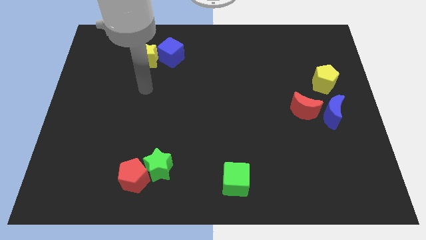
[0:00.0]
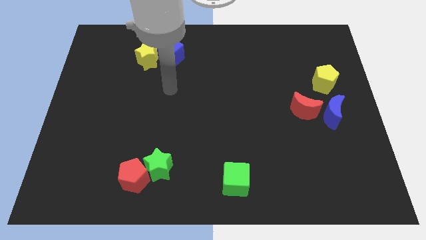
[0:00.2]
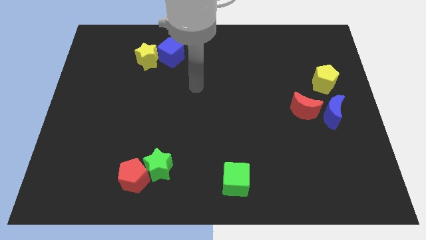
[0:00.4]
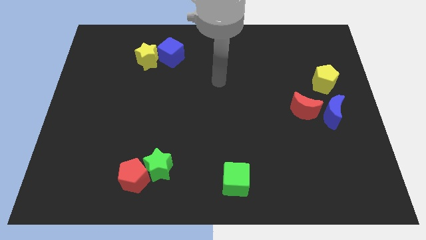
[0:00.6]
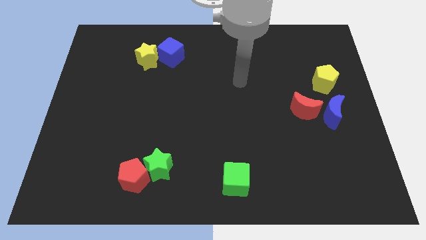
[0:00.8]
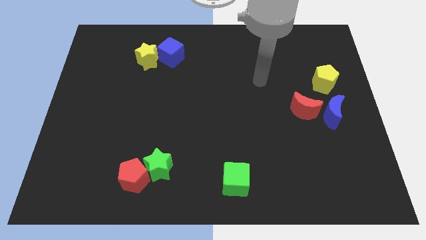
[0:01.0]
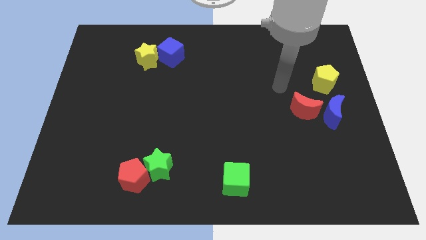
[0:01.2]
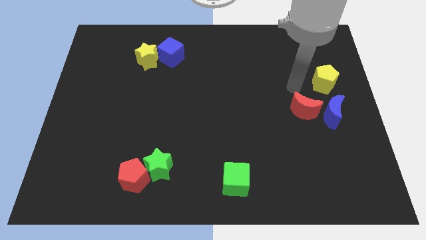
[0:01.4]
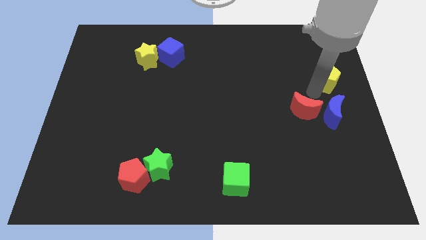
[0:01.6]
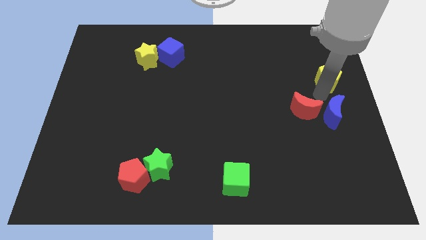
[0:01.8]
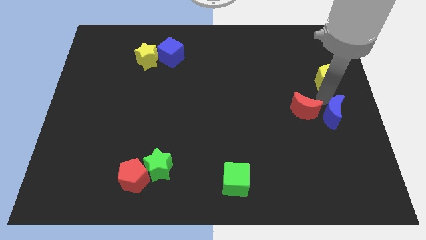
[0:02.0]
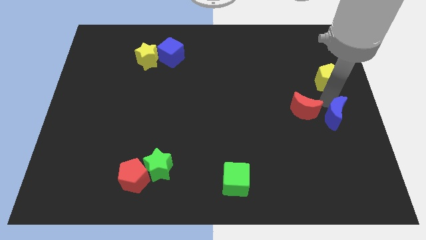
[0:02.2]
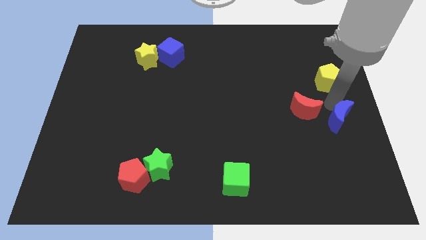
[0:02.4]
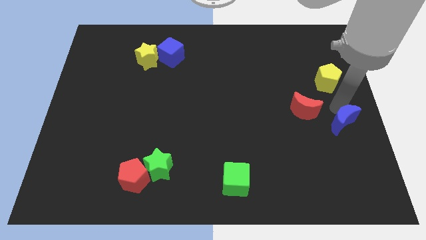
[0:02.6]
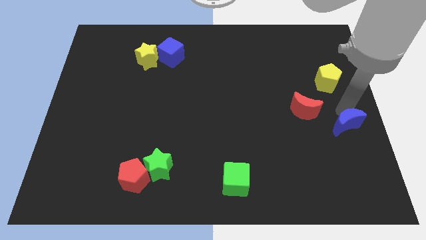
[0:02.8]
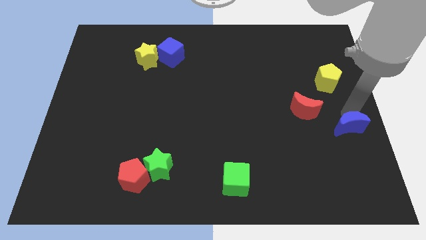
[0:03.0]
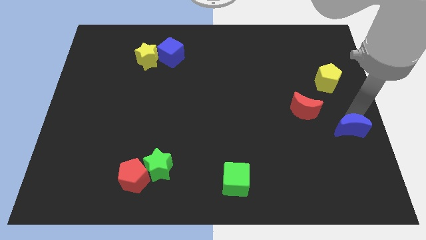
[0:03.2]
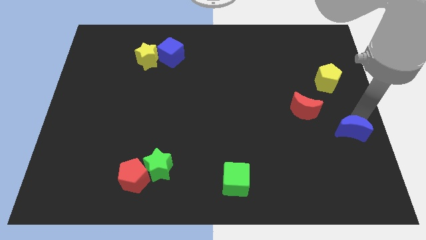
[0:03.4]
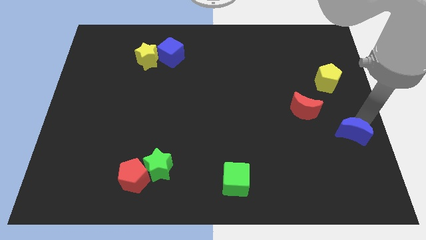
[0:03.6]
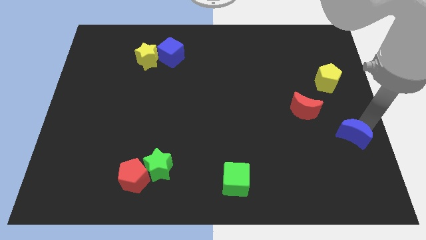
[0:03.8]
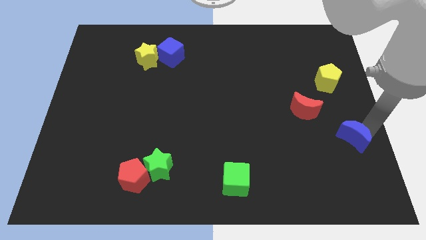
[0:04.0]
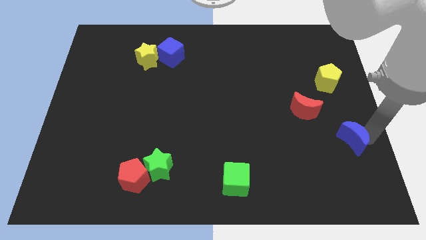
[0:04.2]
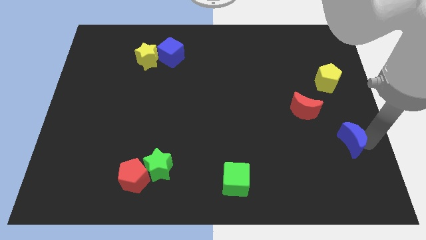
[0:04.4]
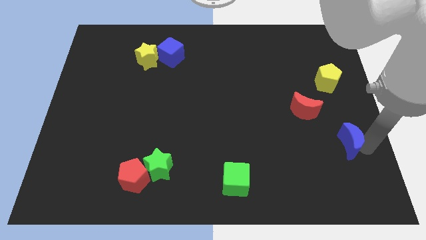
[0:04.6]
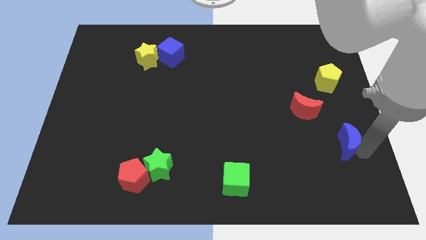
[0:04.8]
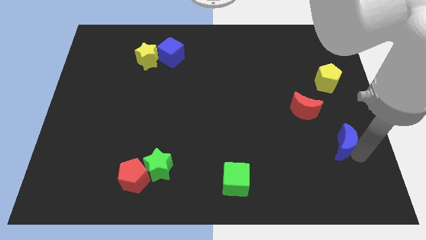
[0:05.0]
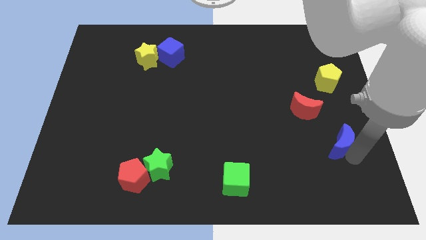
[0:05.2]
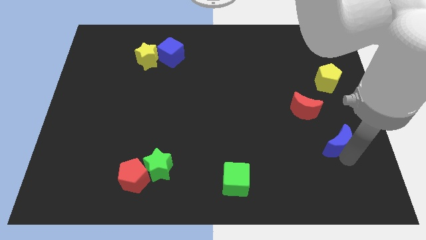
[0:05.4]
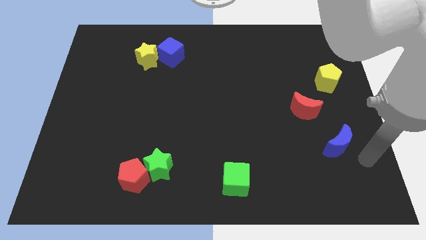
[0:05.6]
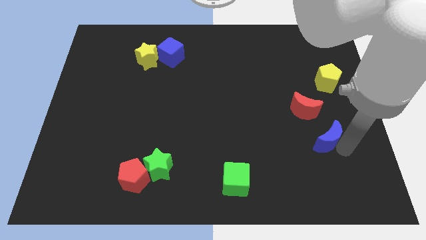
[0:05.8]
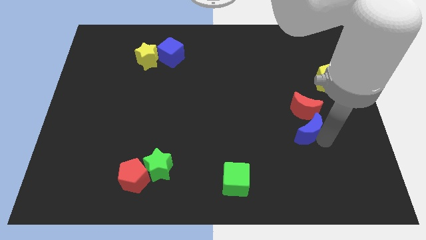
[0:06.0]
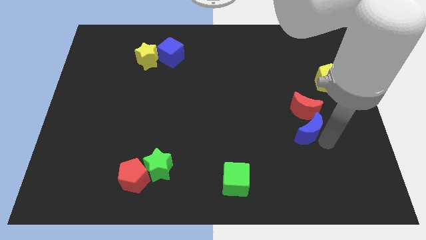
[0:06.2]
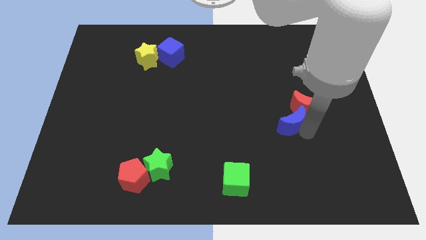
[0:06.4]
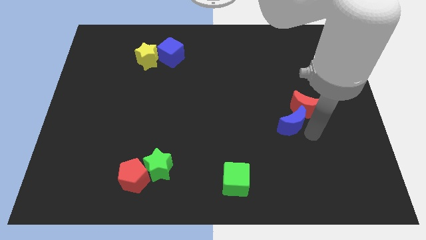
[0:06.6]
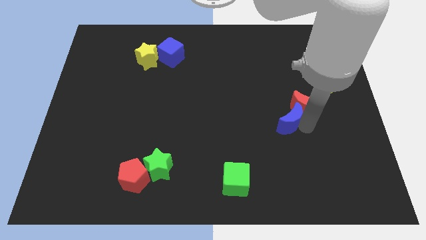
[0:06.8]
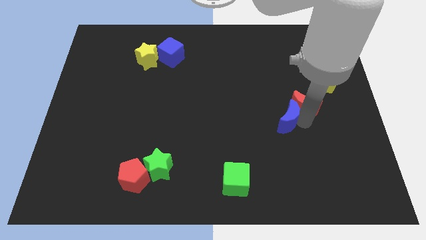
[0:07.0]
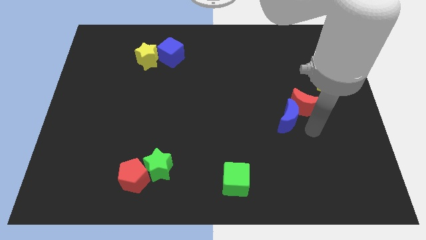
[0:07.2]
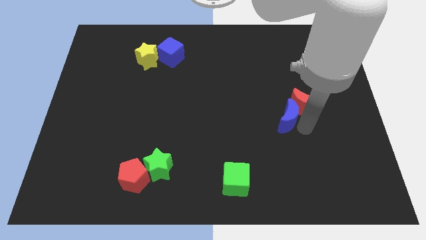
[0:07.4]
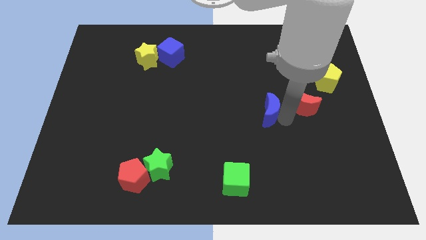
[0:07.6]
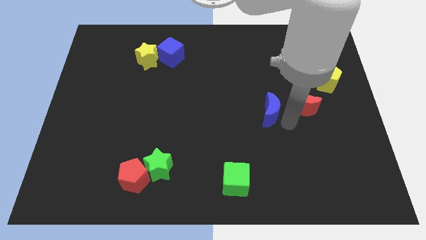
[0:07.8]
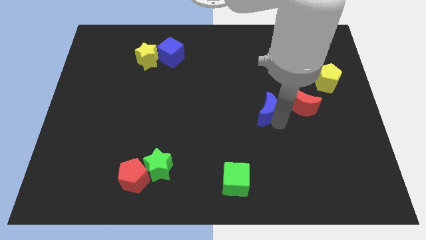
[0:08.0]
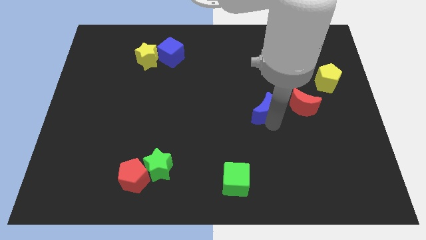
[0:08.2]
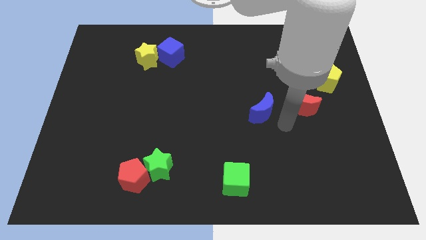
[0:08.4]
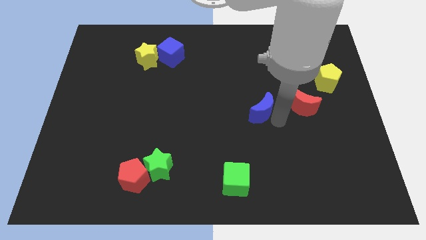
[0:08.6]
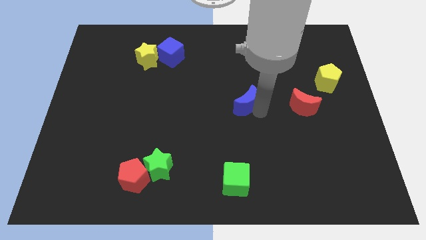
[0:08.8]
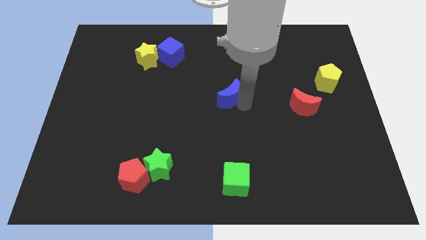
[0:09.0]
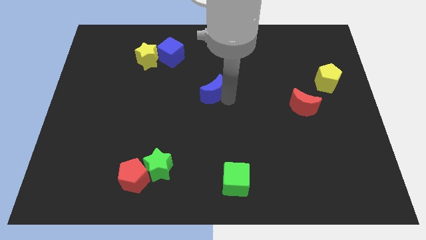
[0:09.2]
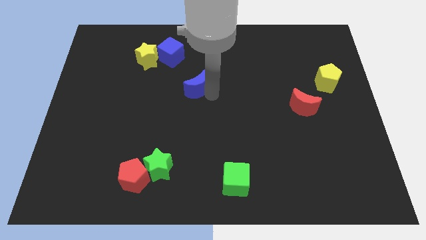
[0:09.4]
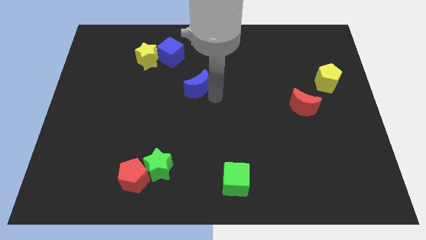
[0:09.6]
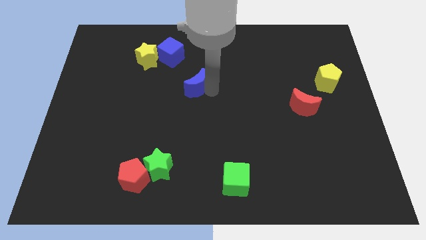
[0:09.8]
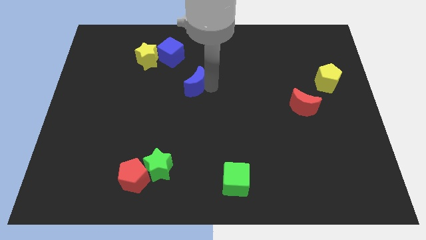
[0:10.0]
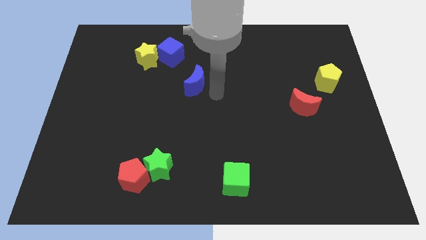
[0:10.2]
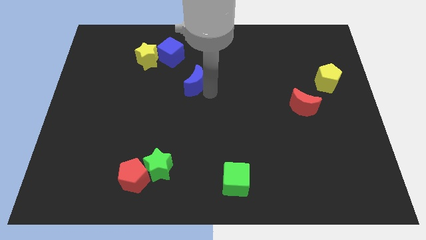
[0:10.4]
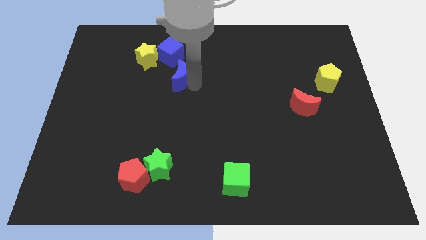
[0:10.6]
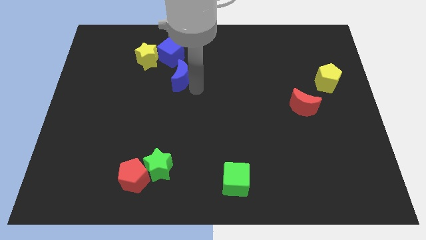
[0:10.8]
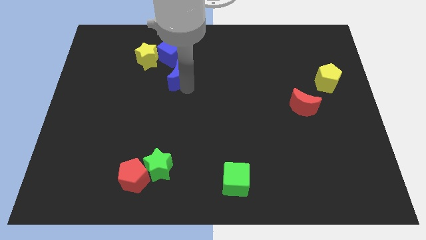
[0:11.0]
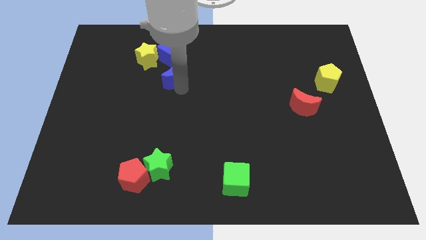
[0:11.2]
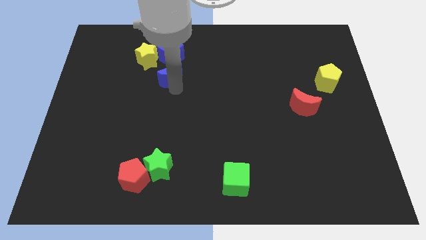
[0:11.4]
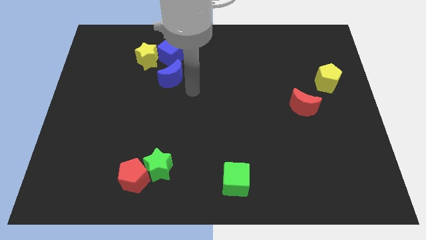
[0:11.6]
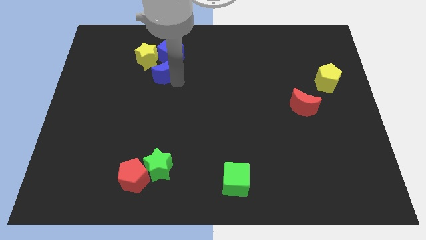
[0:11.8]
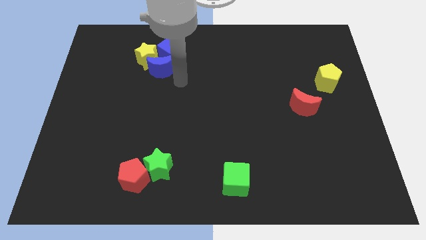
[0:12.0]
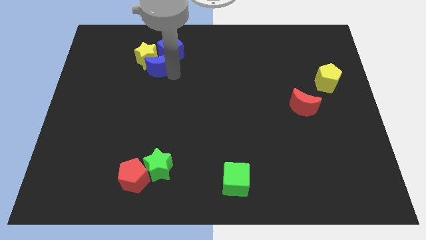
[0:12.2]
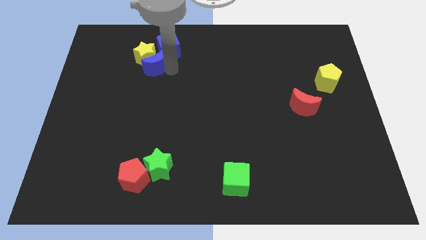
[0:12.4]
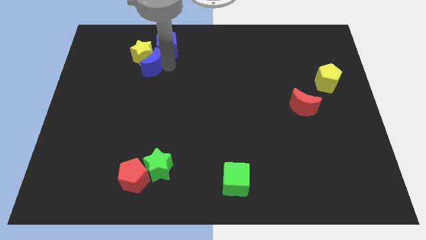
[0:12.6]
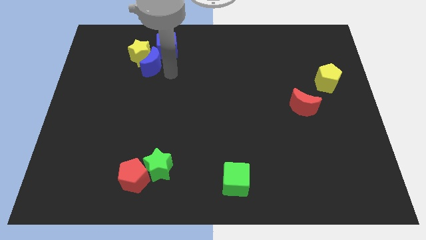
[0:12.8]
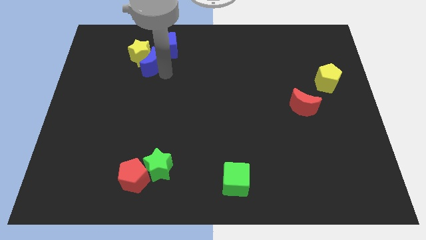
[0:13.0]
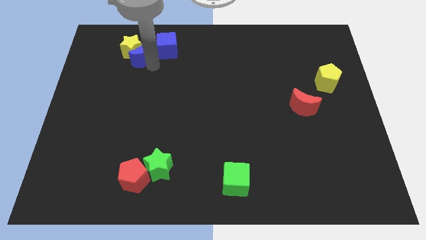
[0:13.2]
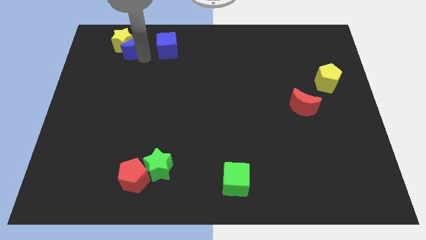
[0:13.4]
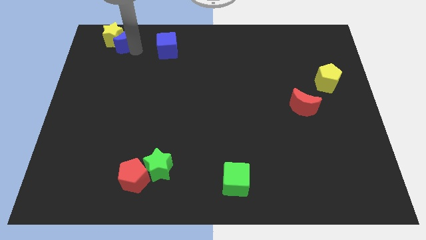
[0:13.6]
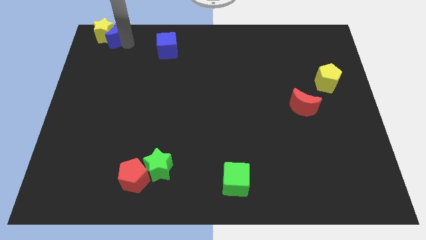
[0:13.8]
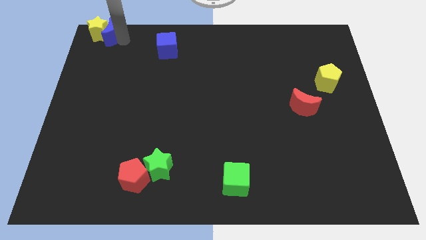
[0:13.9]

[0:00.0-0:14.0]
slide the blue moon to the upper left corner
